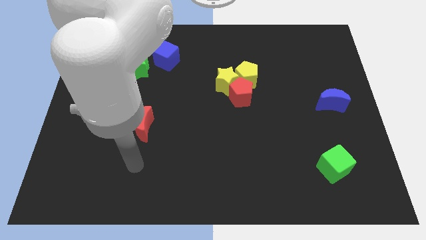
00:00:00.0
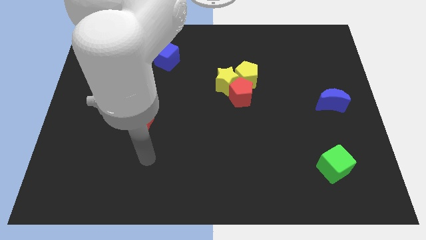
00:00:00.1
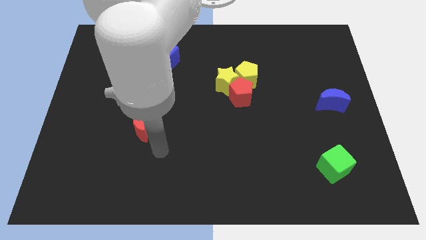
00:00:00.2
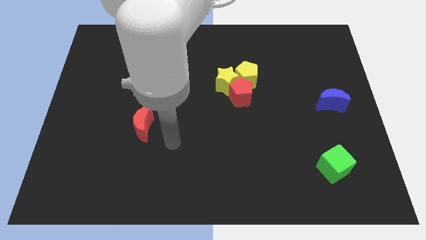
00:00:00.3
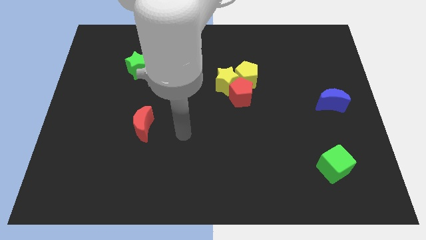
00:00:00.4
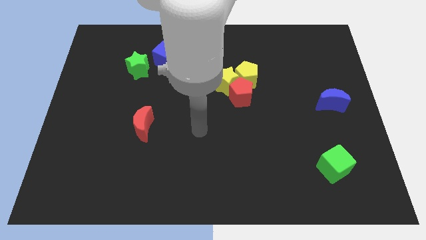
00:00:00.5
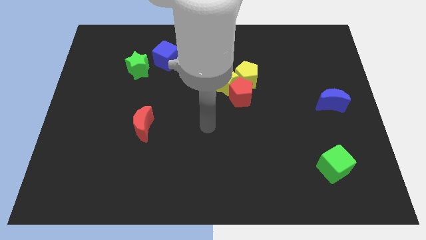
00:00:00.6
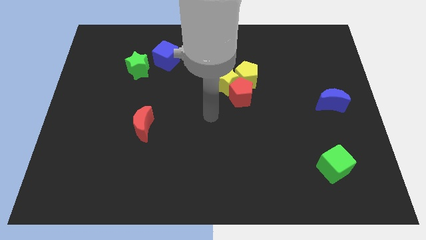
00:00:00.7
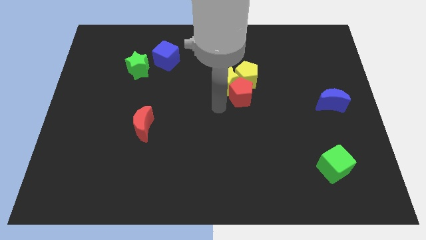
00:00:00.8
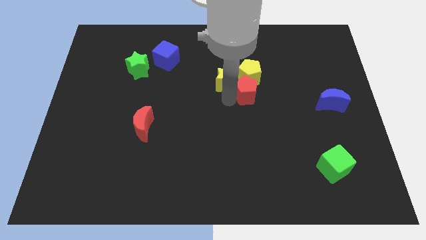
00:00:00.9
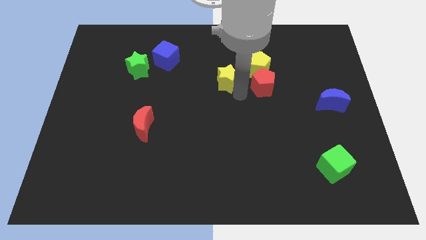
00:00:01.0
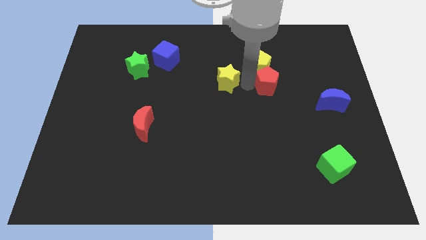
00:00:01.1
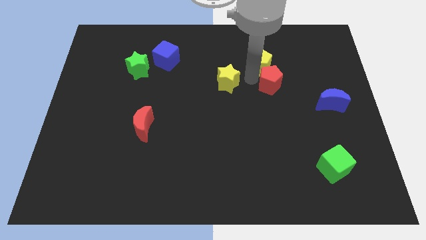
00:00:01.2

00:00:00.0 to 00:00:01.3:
pull the yellow star apart from the red pentagon and yellow pentagon

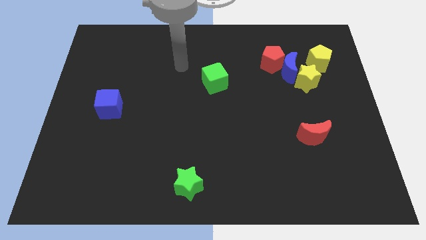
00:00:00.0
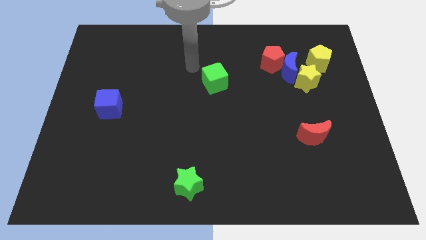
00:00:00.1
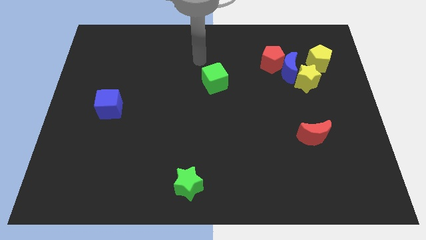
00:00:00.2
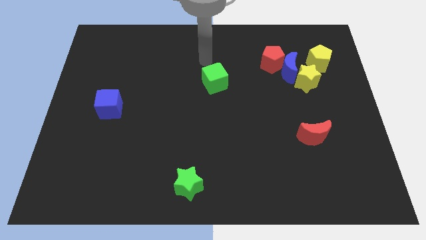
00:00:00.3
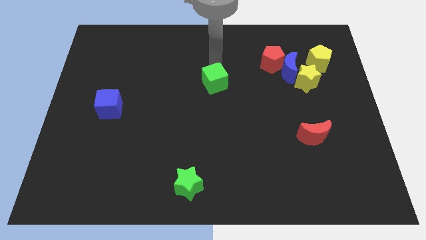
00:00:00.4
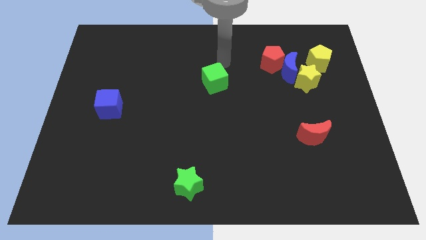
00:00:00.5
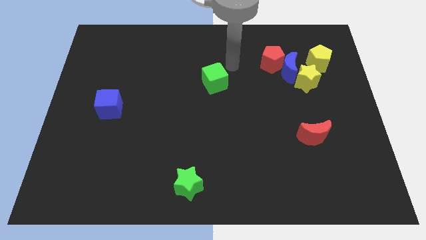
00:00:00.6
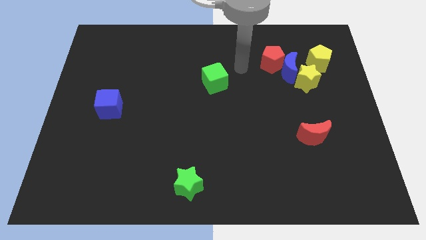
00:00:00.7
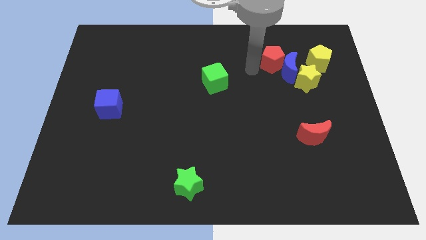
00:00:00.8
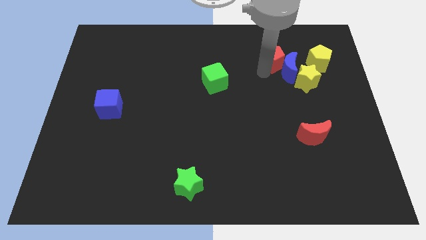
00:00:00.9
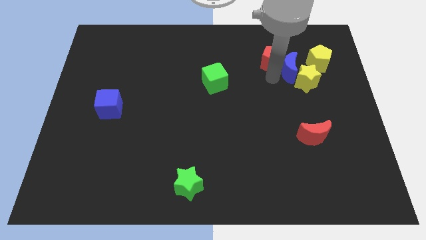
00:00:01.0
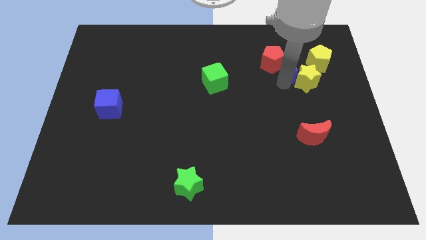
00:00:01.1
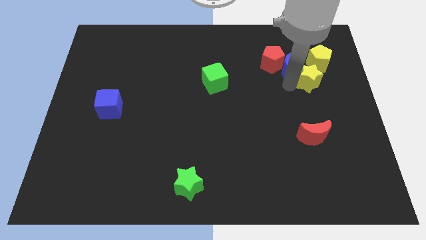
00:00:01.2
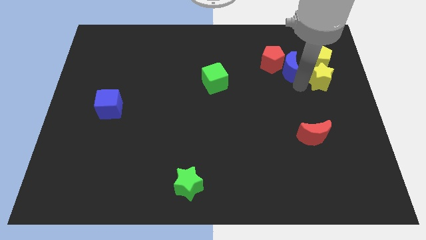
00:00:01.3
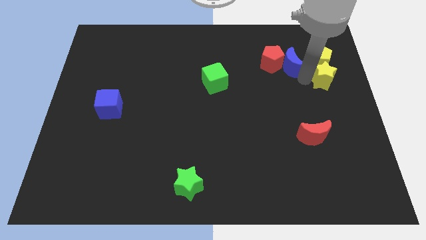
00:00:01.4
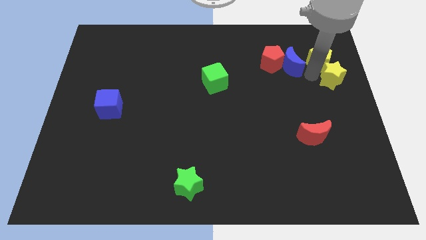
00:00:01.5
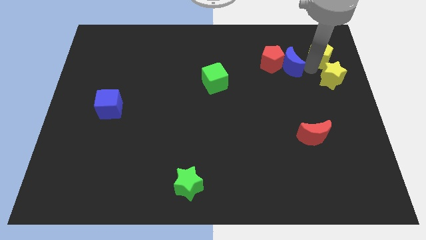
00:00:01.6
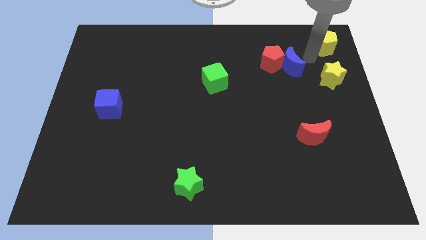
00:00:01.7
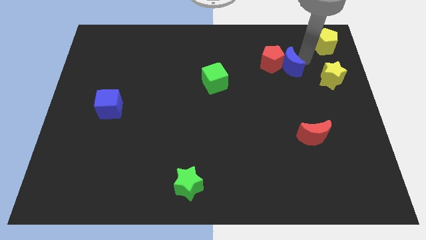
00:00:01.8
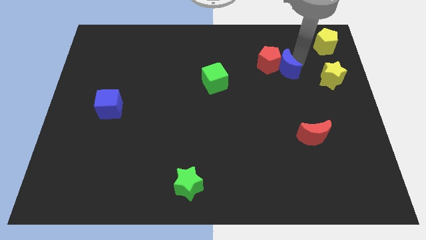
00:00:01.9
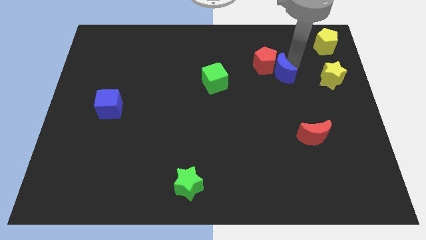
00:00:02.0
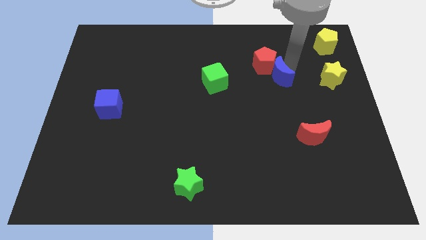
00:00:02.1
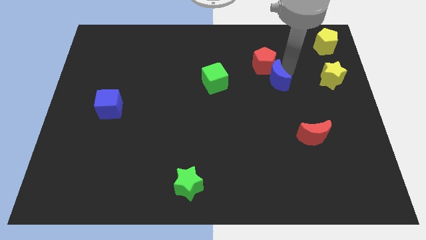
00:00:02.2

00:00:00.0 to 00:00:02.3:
pull the blue moon apart from the red pentagon, yellow star, and yellow pentagon

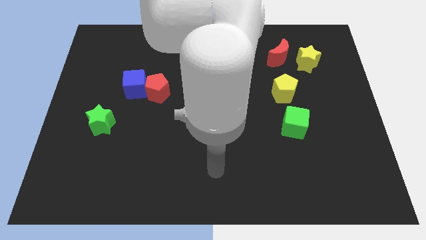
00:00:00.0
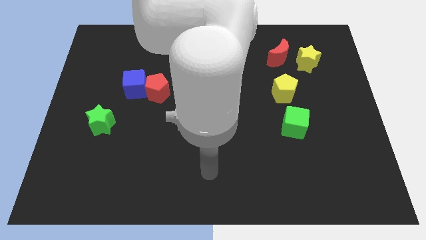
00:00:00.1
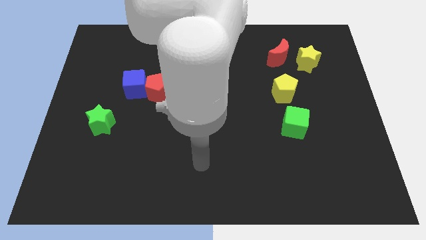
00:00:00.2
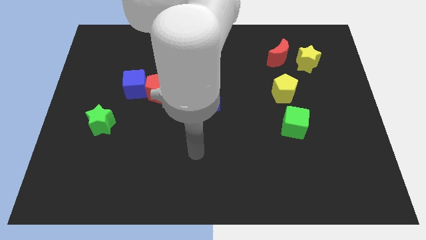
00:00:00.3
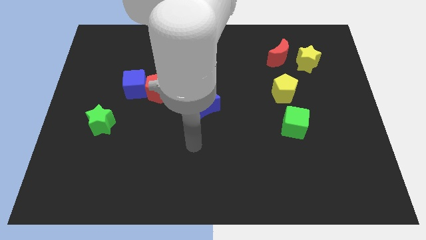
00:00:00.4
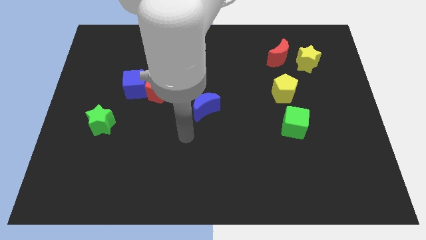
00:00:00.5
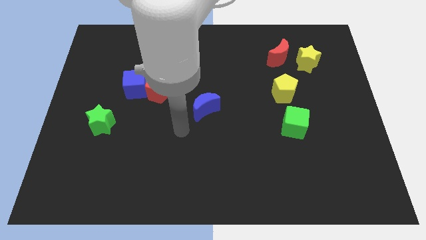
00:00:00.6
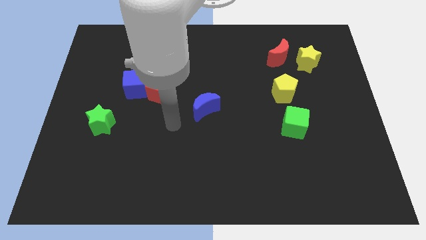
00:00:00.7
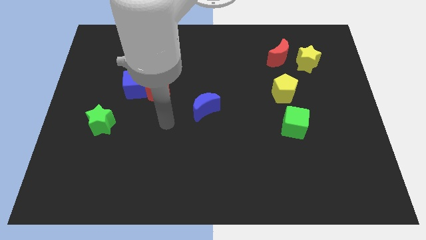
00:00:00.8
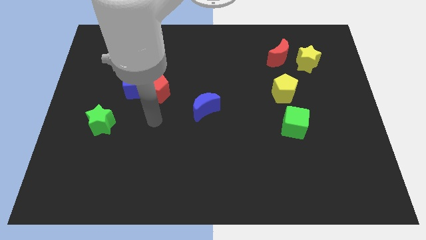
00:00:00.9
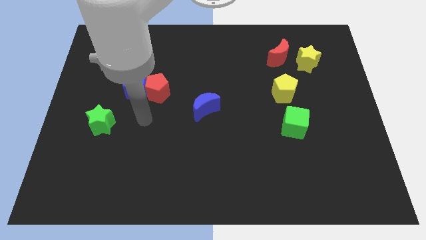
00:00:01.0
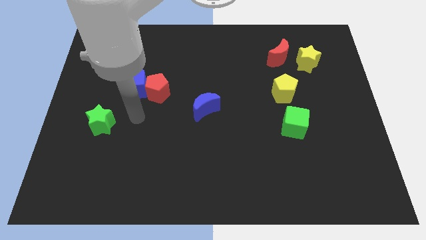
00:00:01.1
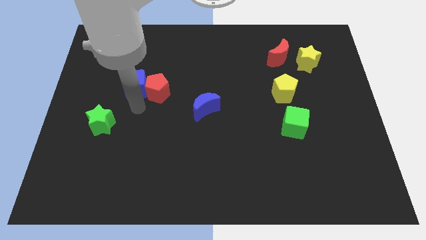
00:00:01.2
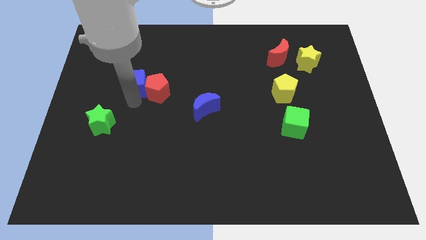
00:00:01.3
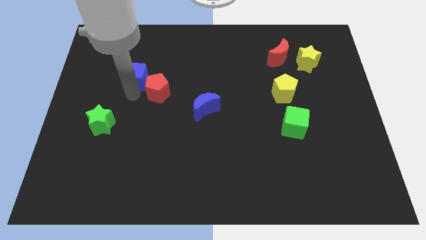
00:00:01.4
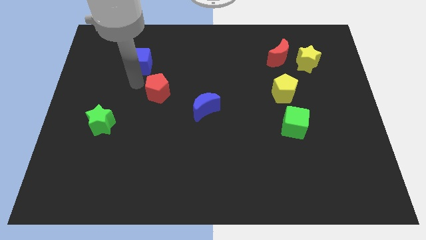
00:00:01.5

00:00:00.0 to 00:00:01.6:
pull the red pentagon apart from the blue cube

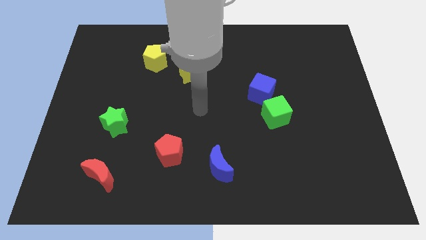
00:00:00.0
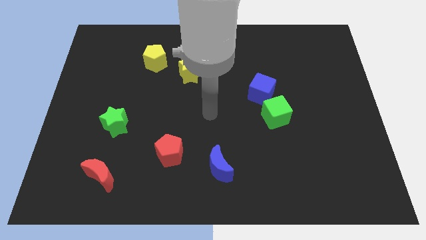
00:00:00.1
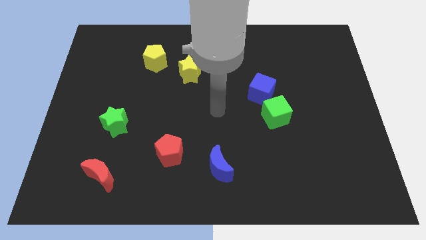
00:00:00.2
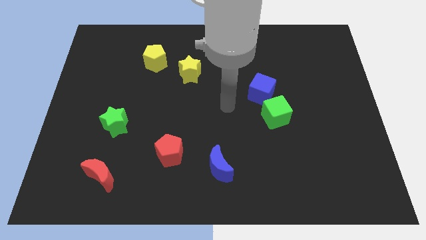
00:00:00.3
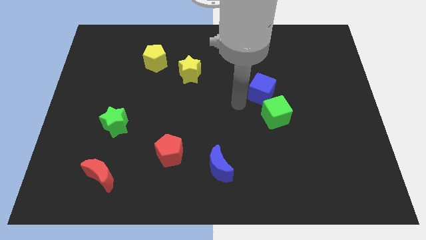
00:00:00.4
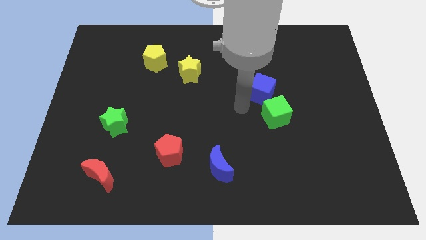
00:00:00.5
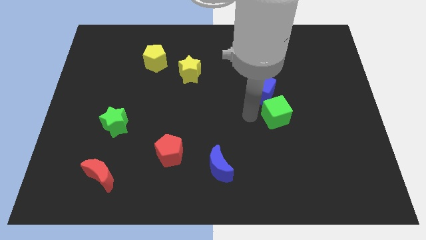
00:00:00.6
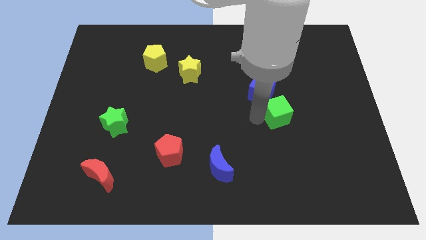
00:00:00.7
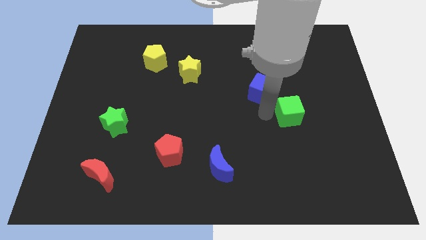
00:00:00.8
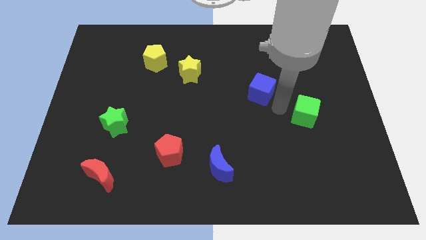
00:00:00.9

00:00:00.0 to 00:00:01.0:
move the blue cube away from the green cube

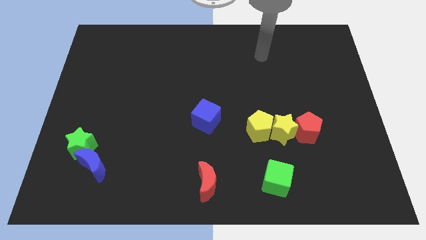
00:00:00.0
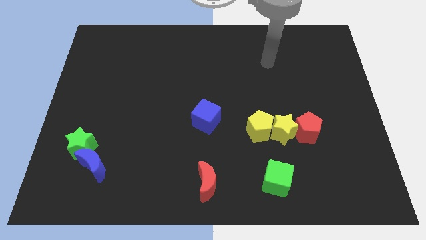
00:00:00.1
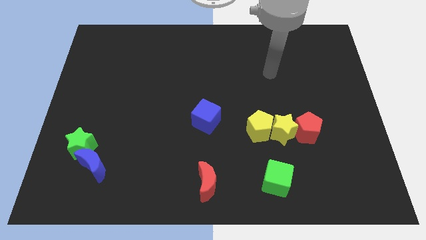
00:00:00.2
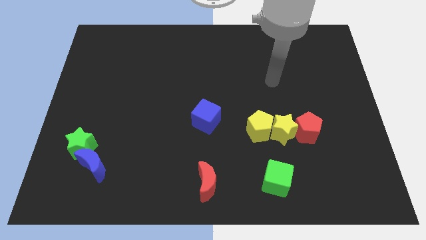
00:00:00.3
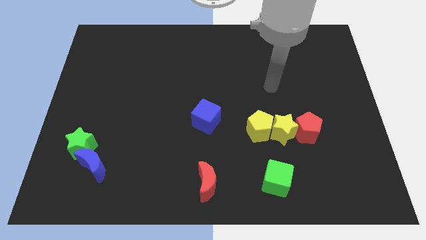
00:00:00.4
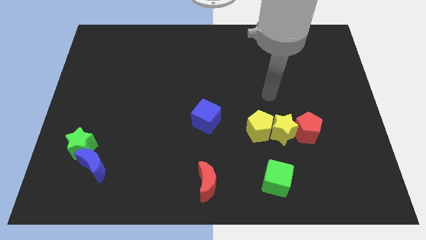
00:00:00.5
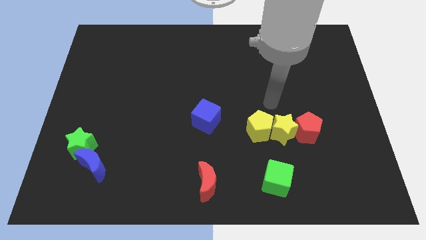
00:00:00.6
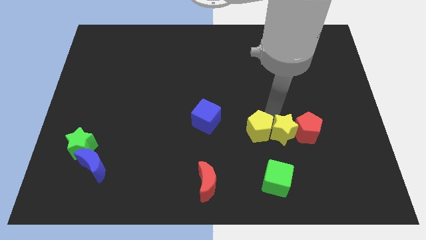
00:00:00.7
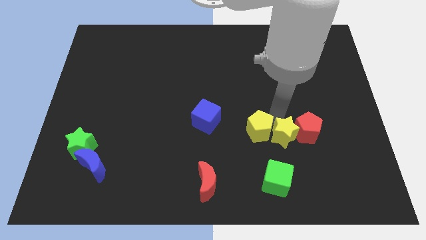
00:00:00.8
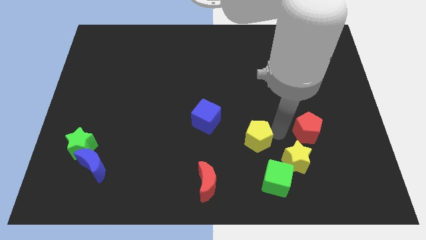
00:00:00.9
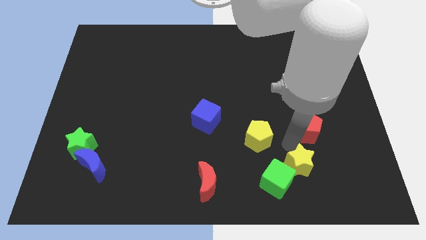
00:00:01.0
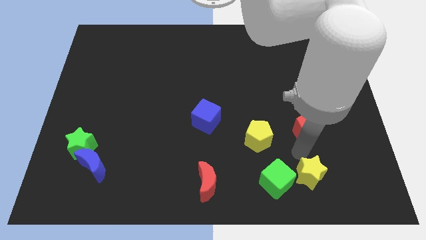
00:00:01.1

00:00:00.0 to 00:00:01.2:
move the red pentagon away from the yellow star

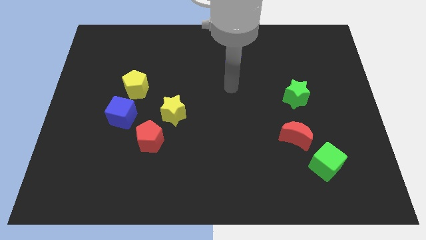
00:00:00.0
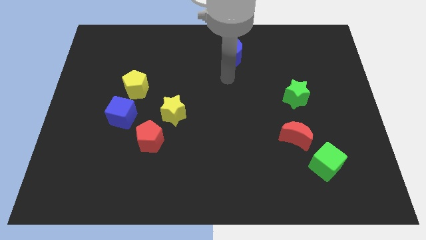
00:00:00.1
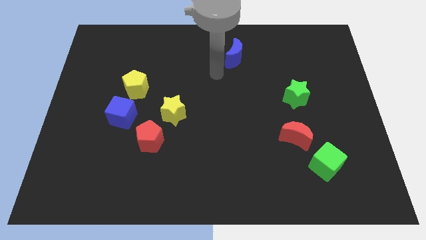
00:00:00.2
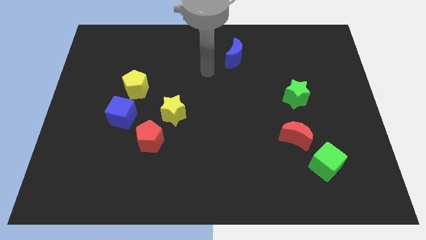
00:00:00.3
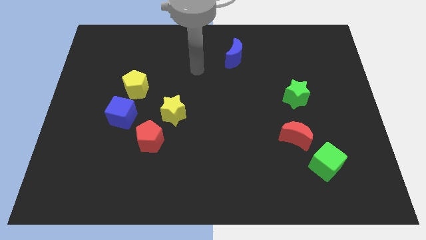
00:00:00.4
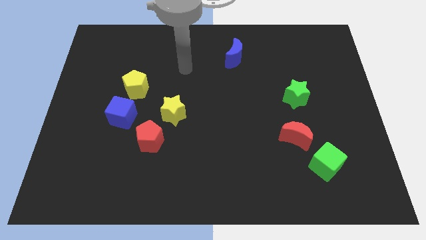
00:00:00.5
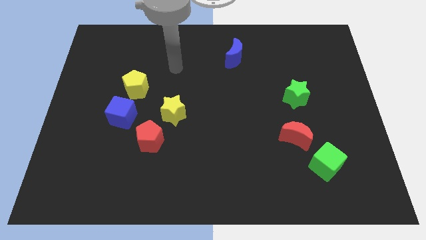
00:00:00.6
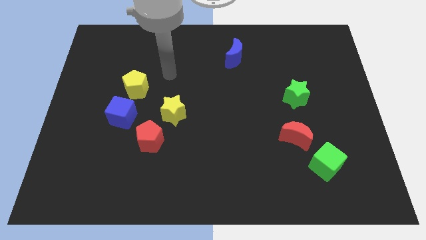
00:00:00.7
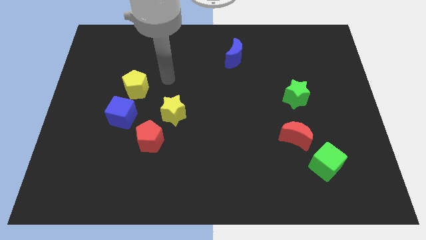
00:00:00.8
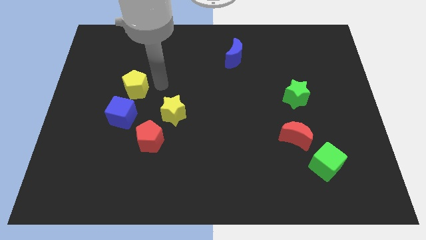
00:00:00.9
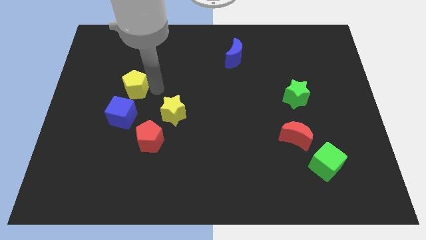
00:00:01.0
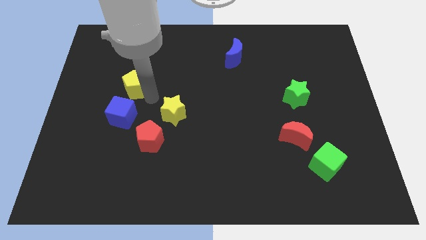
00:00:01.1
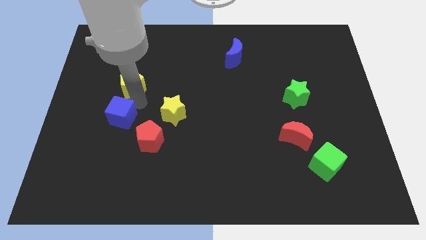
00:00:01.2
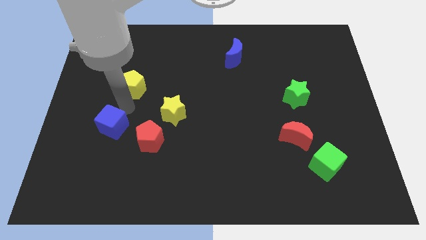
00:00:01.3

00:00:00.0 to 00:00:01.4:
separate the yellow pentagon from the blue cube

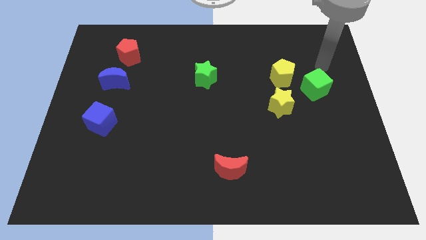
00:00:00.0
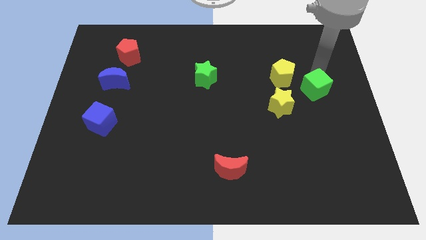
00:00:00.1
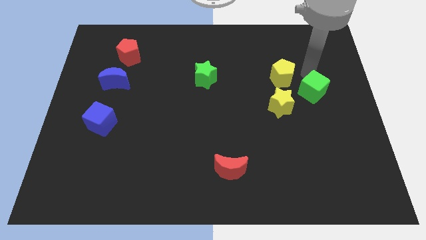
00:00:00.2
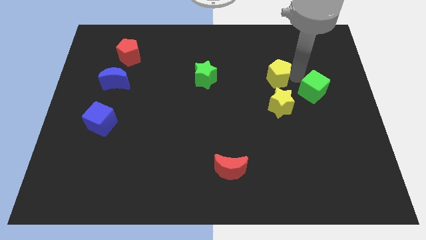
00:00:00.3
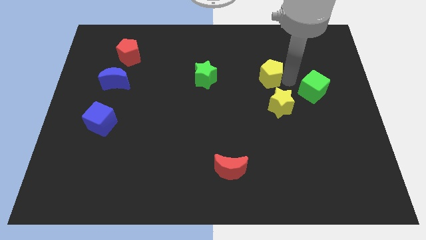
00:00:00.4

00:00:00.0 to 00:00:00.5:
move the green cube away from the yellow pentagon

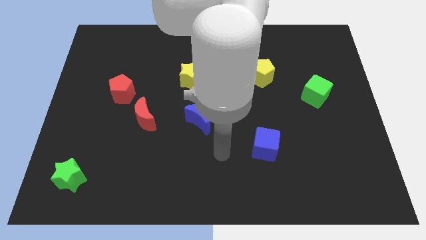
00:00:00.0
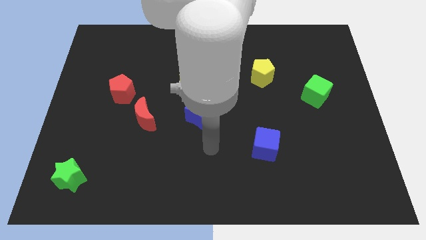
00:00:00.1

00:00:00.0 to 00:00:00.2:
separate the red moon from the red pentagon
